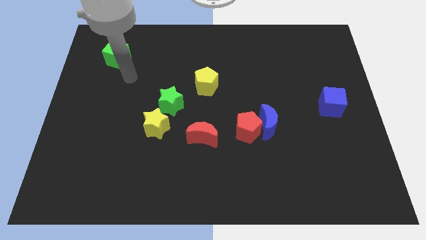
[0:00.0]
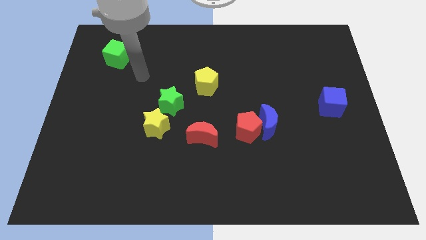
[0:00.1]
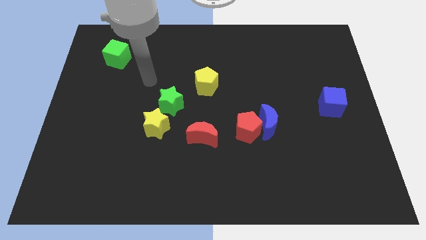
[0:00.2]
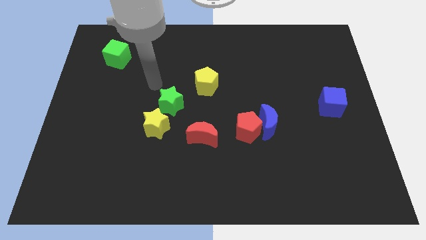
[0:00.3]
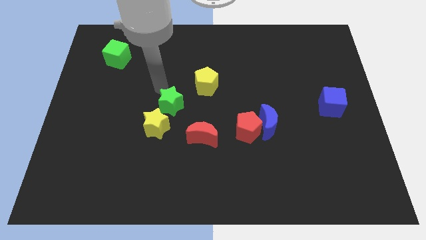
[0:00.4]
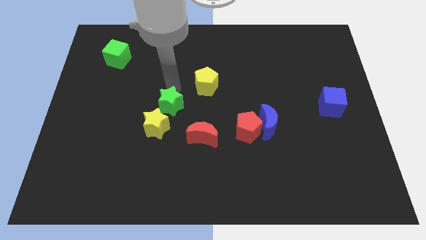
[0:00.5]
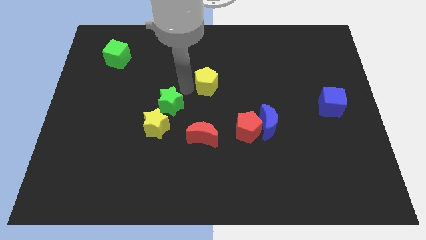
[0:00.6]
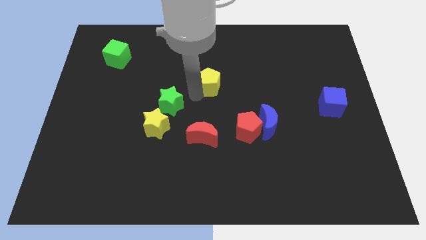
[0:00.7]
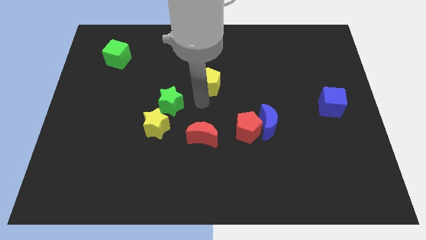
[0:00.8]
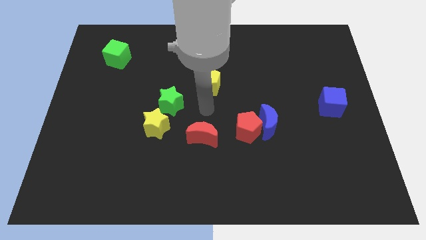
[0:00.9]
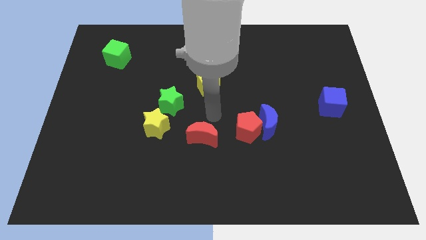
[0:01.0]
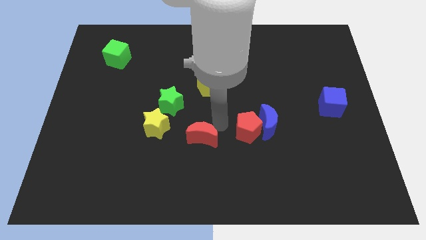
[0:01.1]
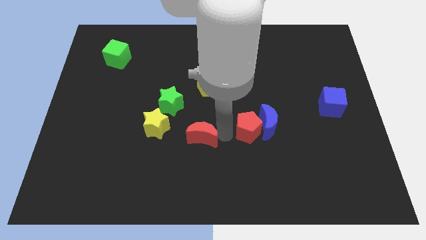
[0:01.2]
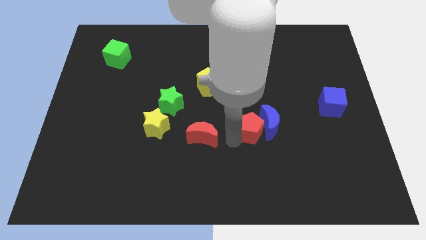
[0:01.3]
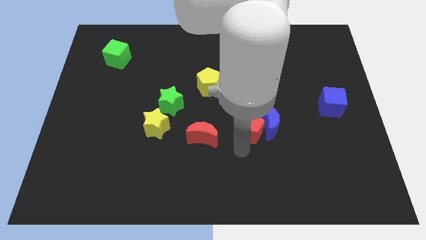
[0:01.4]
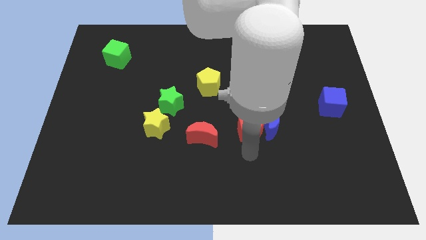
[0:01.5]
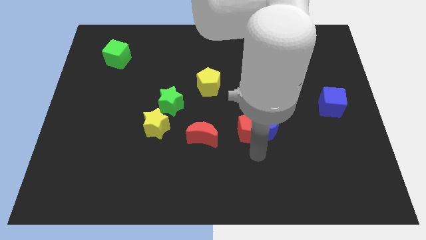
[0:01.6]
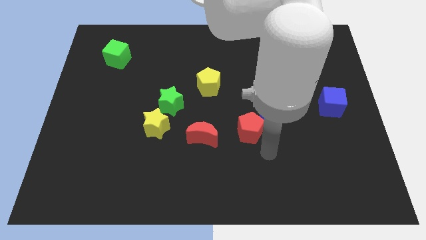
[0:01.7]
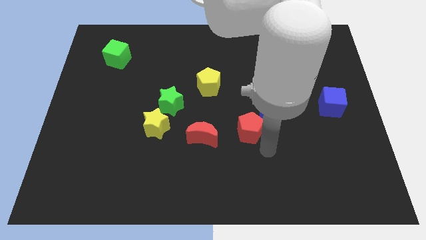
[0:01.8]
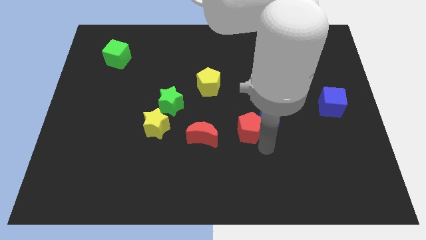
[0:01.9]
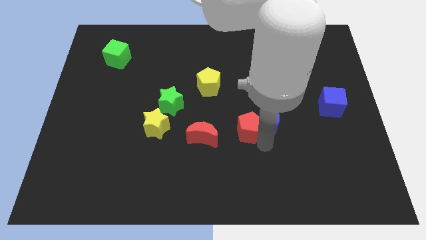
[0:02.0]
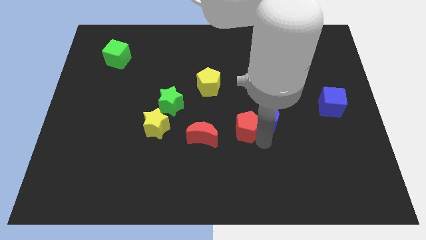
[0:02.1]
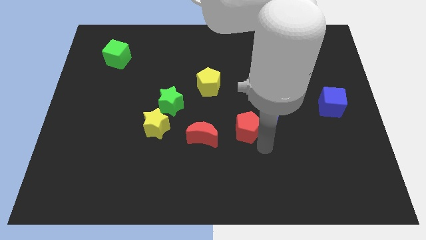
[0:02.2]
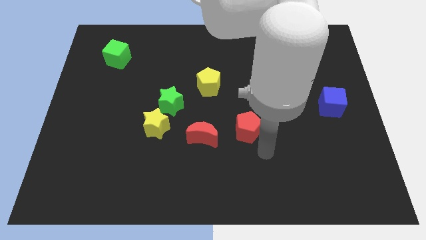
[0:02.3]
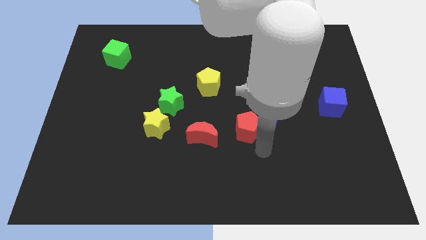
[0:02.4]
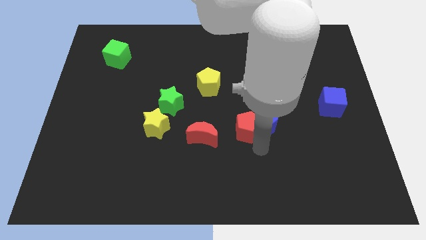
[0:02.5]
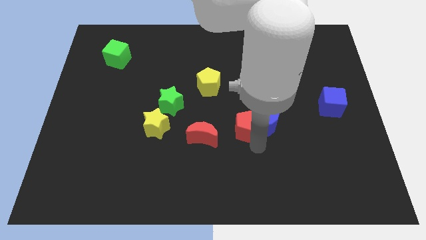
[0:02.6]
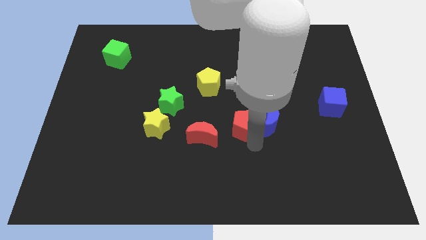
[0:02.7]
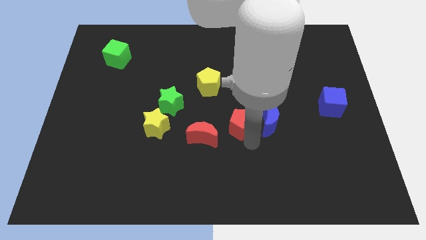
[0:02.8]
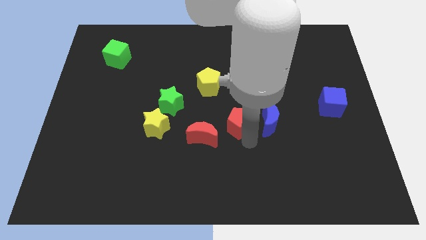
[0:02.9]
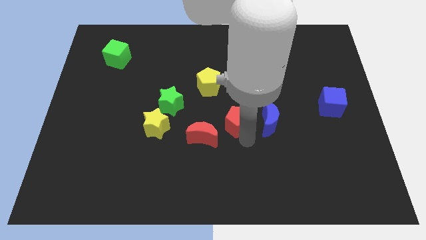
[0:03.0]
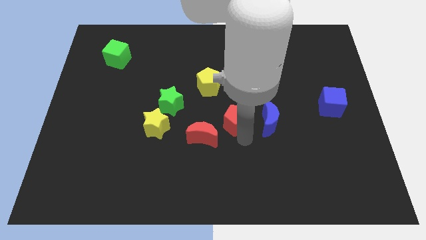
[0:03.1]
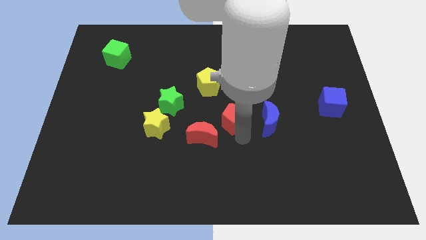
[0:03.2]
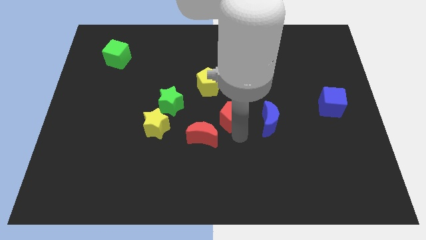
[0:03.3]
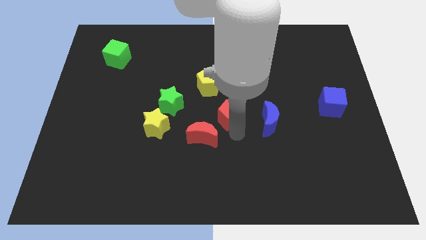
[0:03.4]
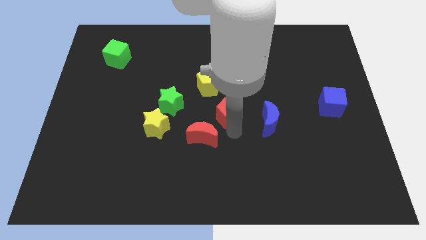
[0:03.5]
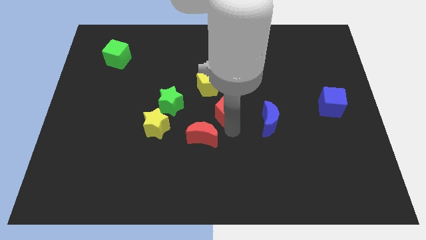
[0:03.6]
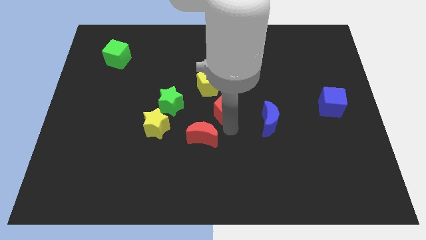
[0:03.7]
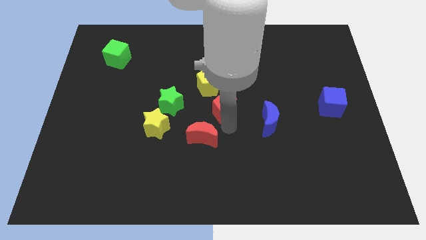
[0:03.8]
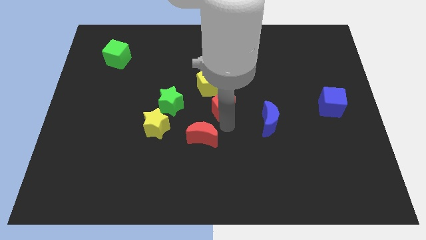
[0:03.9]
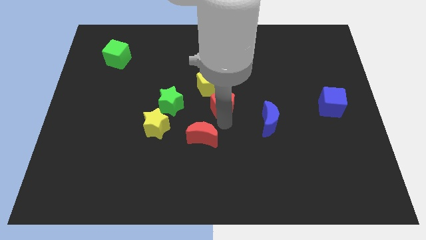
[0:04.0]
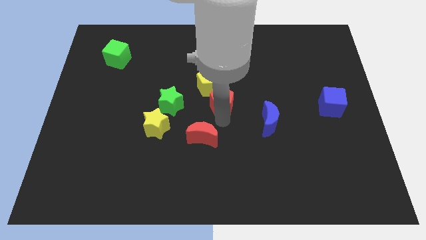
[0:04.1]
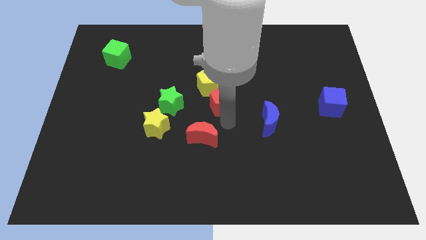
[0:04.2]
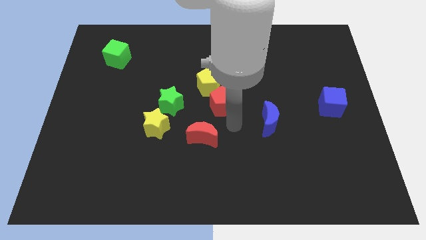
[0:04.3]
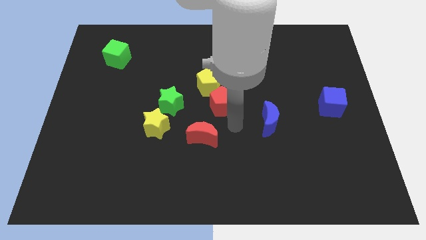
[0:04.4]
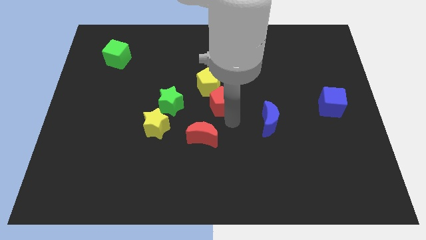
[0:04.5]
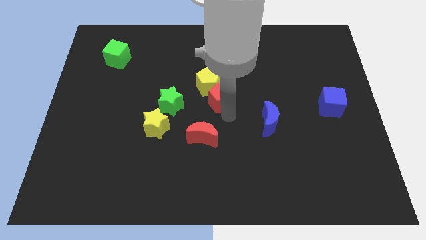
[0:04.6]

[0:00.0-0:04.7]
move the red pentagon close to the yellow pentagon

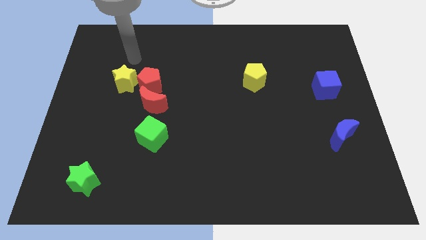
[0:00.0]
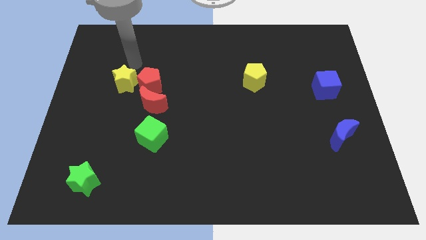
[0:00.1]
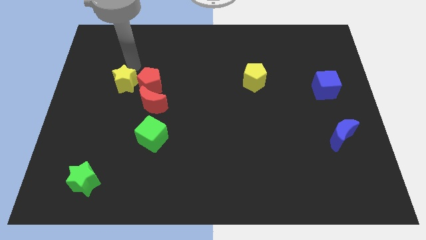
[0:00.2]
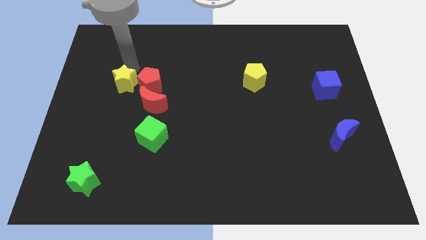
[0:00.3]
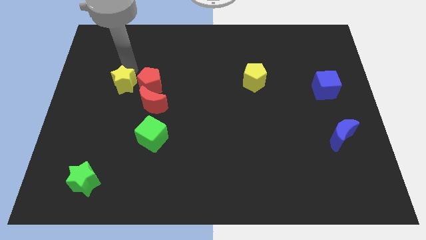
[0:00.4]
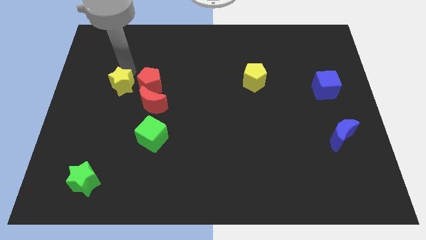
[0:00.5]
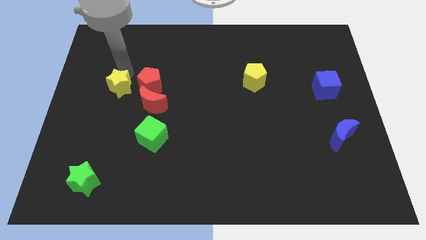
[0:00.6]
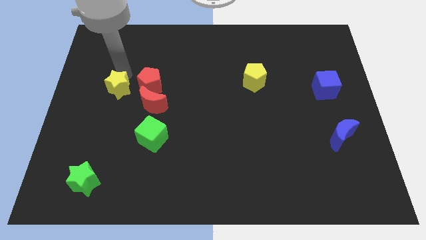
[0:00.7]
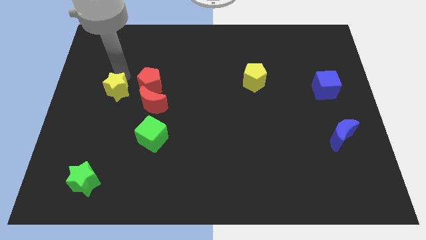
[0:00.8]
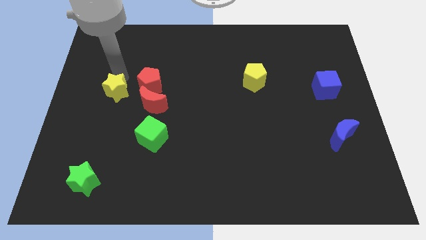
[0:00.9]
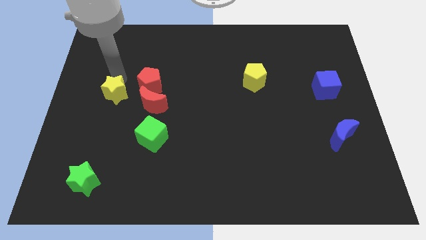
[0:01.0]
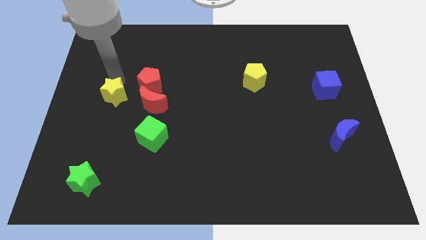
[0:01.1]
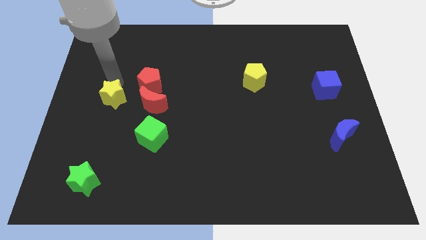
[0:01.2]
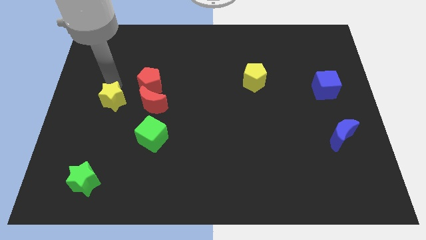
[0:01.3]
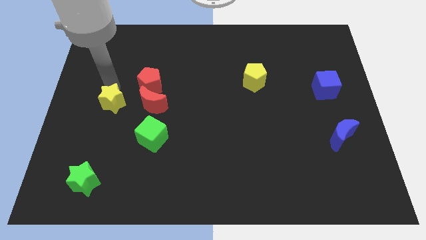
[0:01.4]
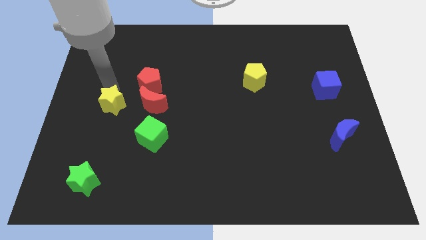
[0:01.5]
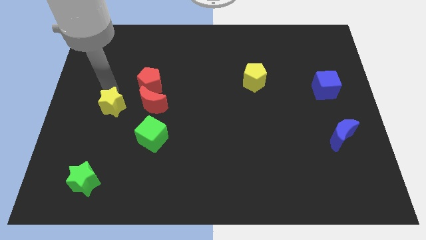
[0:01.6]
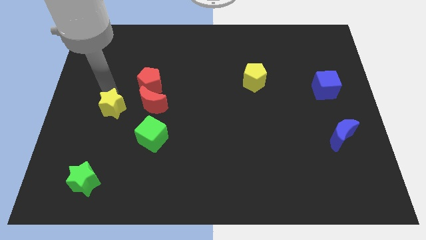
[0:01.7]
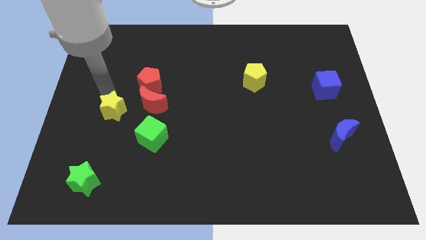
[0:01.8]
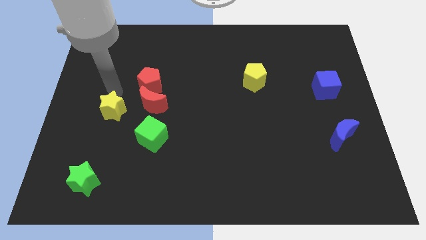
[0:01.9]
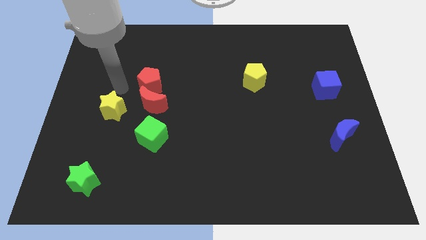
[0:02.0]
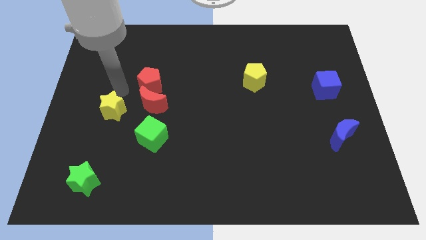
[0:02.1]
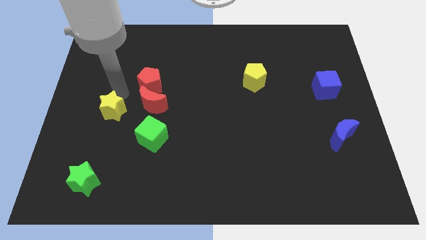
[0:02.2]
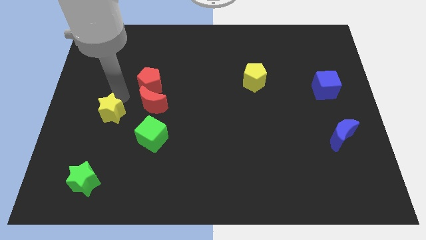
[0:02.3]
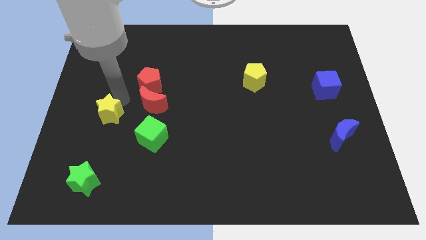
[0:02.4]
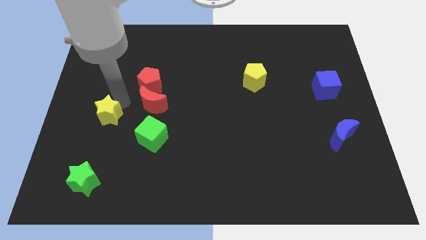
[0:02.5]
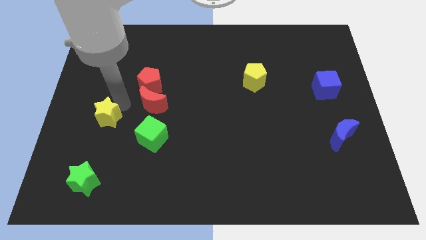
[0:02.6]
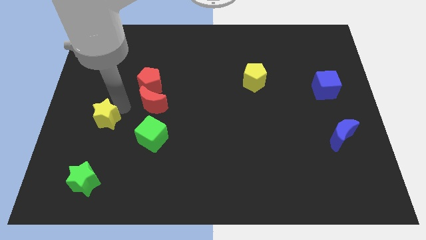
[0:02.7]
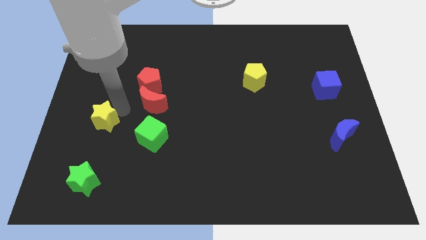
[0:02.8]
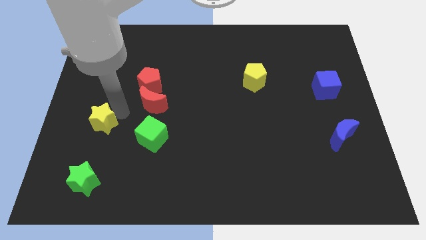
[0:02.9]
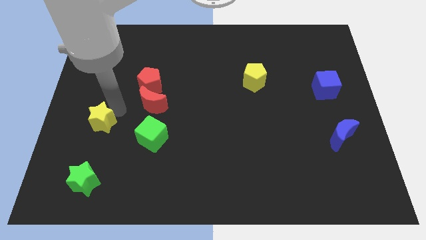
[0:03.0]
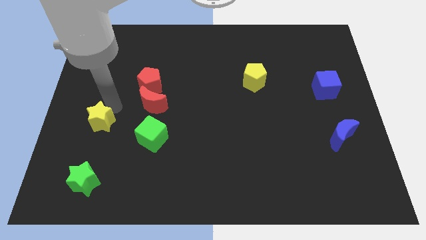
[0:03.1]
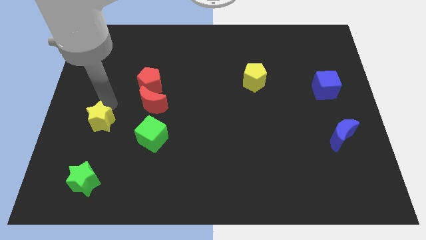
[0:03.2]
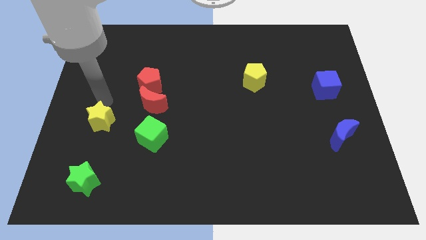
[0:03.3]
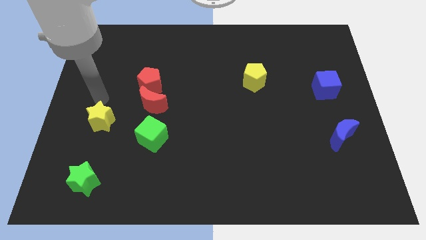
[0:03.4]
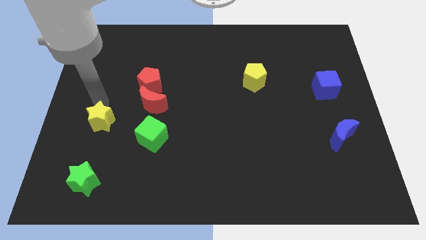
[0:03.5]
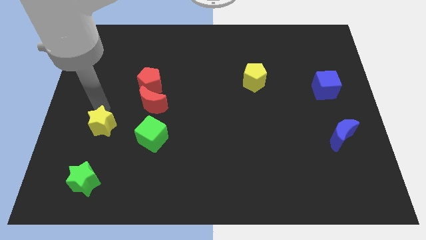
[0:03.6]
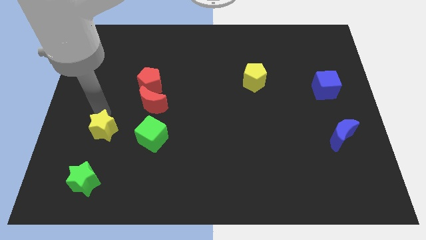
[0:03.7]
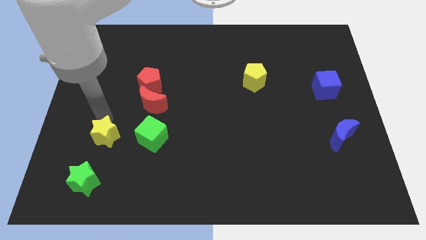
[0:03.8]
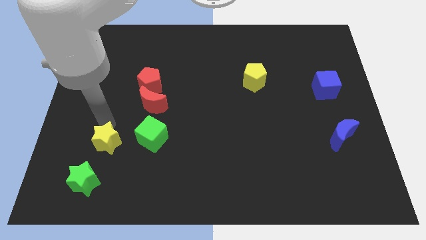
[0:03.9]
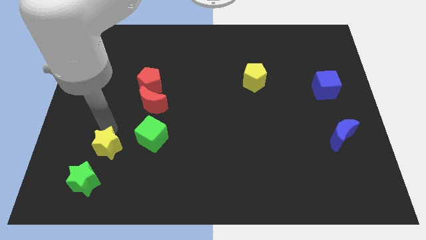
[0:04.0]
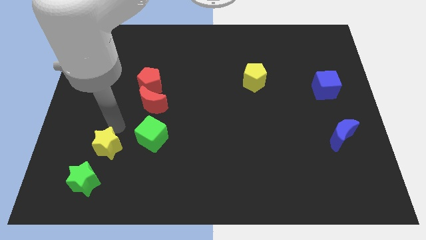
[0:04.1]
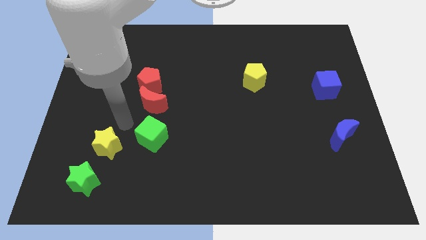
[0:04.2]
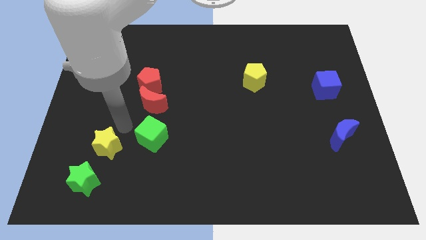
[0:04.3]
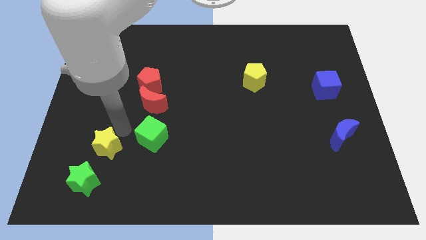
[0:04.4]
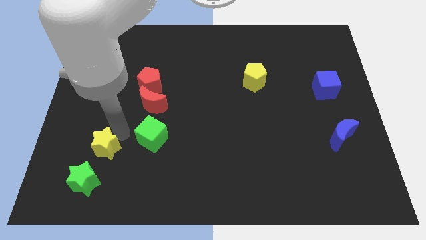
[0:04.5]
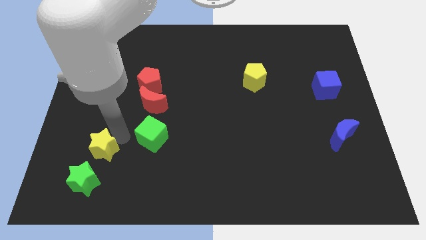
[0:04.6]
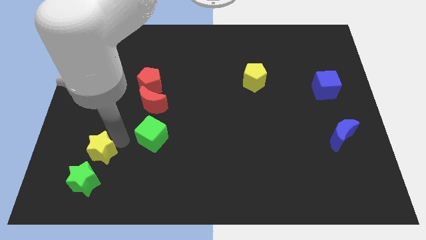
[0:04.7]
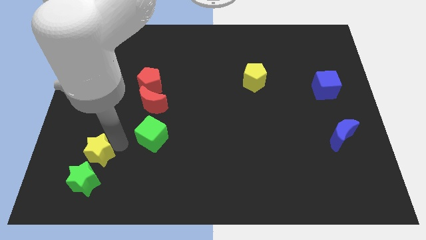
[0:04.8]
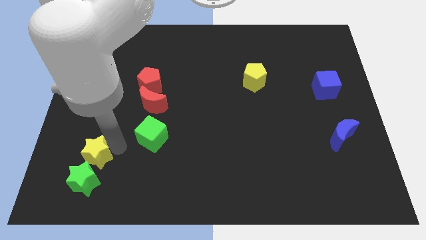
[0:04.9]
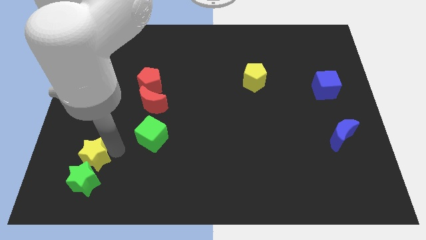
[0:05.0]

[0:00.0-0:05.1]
put the yellow star to the green star
